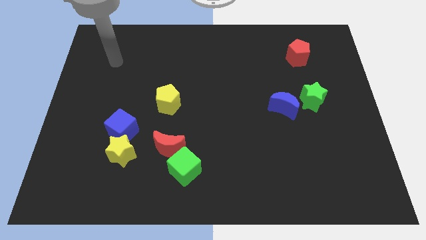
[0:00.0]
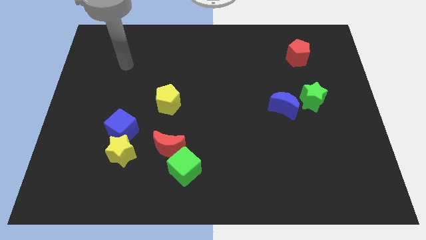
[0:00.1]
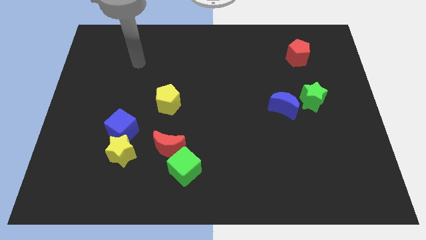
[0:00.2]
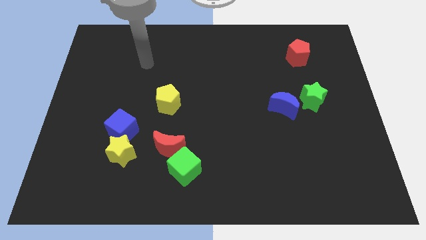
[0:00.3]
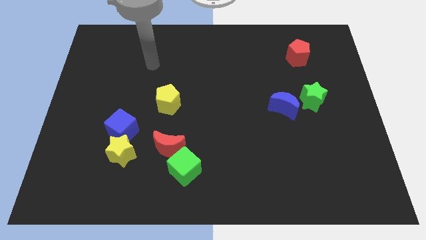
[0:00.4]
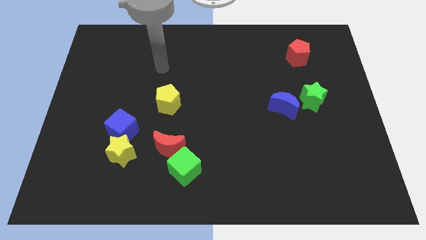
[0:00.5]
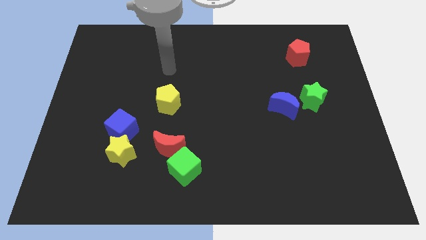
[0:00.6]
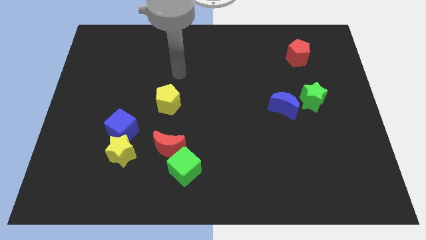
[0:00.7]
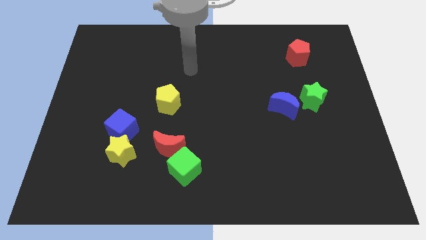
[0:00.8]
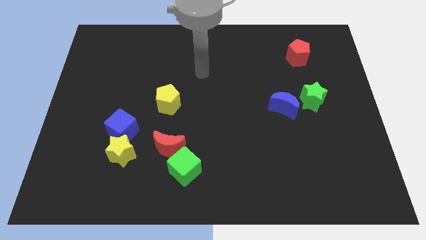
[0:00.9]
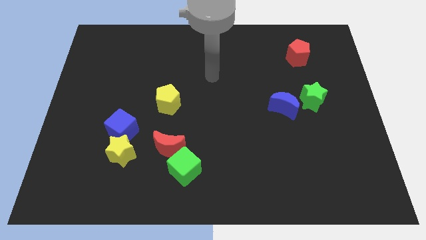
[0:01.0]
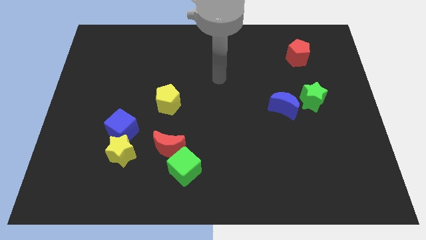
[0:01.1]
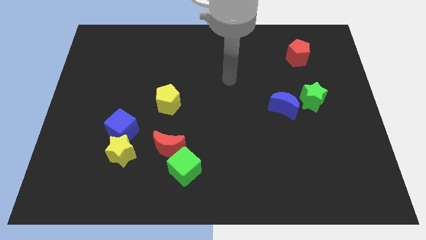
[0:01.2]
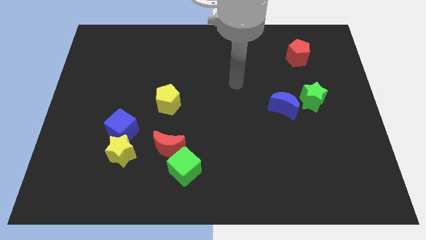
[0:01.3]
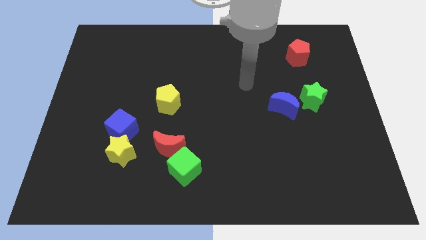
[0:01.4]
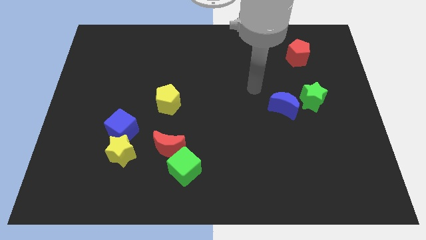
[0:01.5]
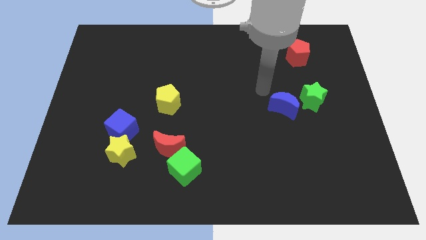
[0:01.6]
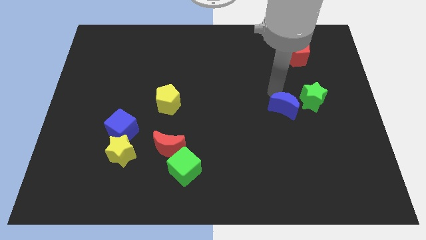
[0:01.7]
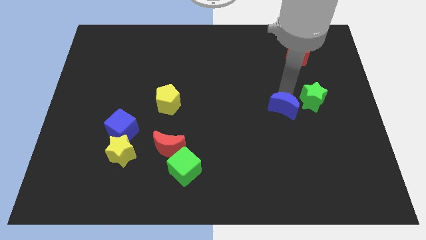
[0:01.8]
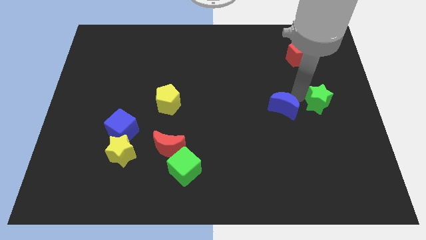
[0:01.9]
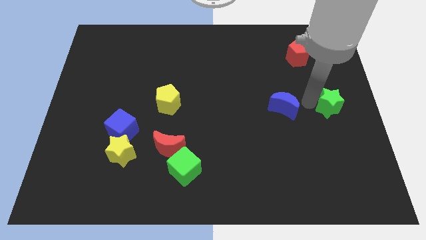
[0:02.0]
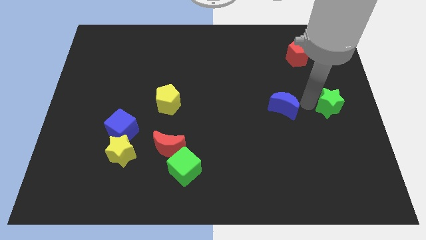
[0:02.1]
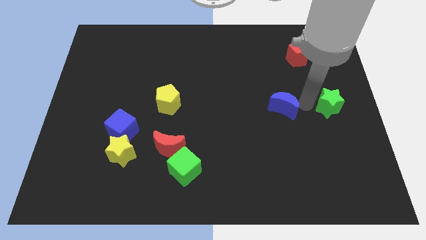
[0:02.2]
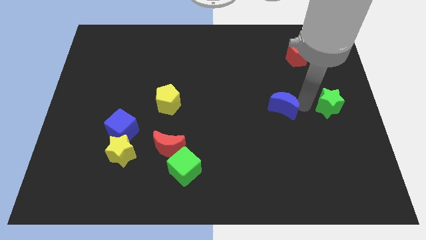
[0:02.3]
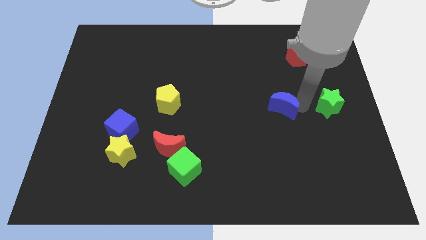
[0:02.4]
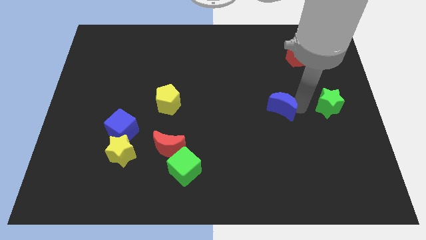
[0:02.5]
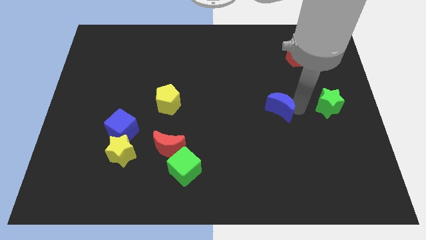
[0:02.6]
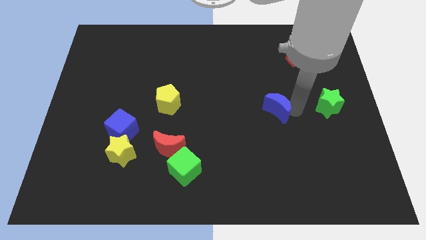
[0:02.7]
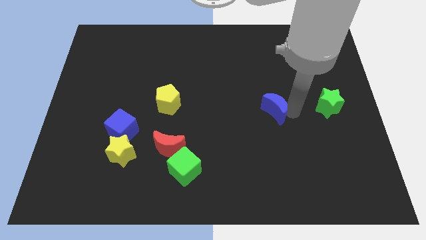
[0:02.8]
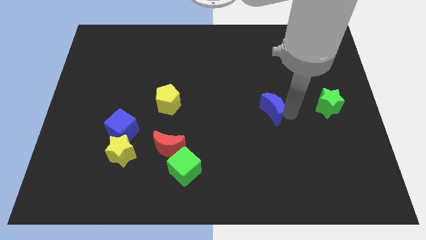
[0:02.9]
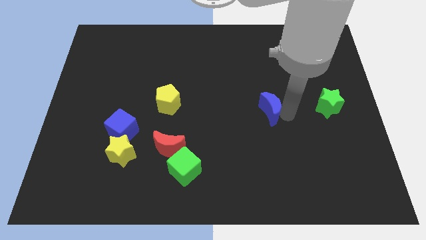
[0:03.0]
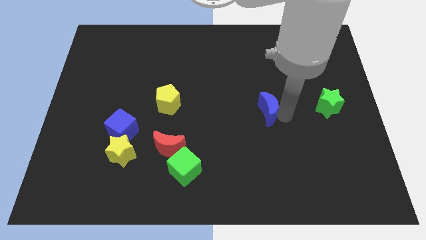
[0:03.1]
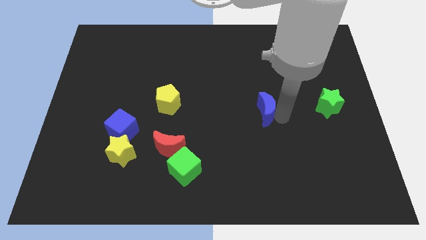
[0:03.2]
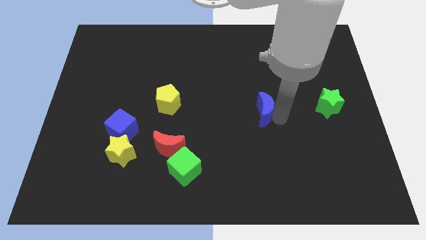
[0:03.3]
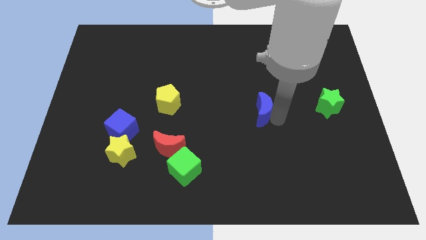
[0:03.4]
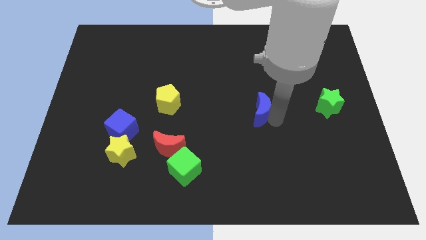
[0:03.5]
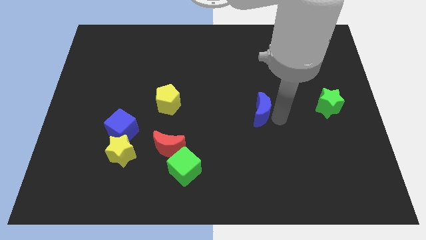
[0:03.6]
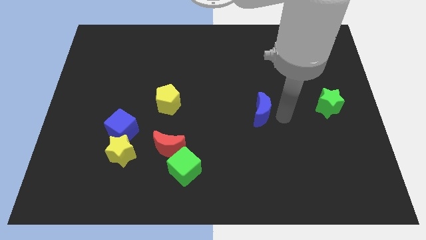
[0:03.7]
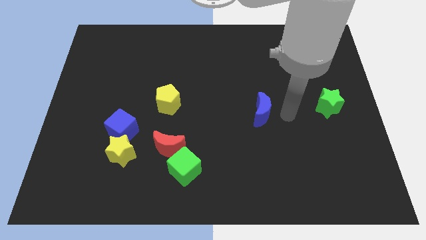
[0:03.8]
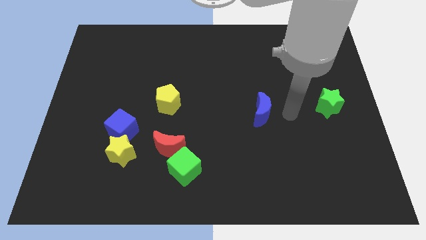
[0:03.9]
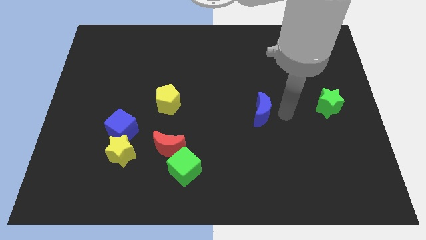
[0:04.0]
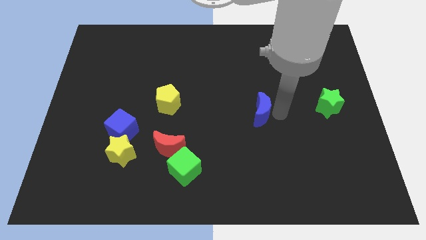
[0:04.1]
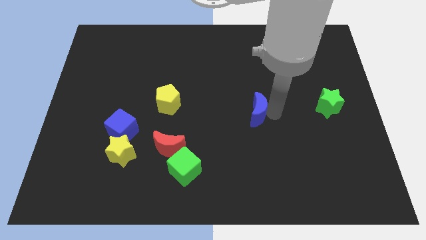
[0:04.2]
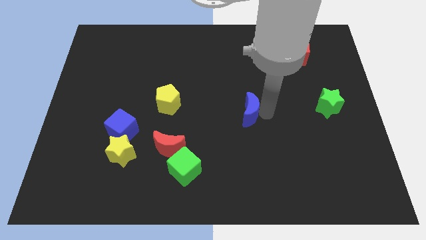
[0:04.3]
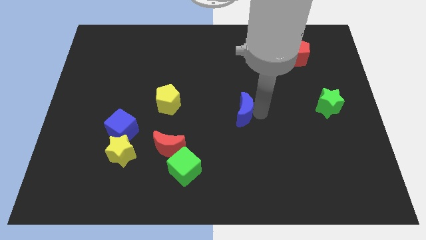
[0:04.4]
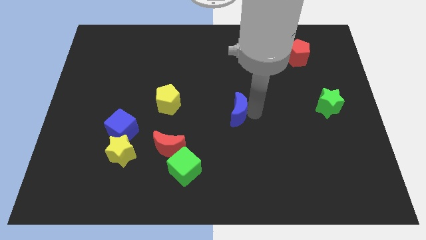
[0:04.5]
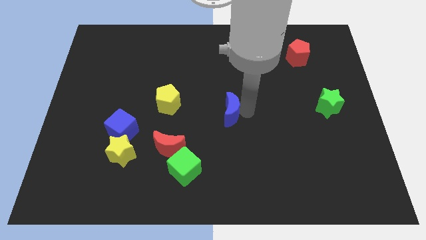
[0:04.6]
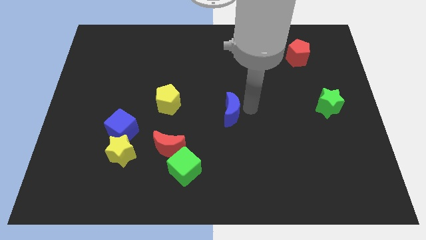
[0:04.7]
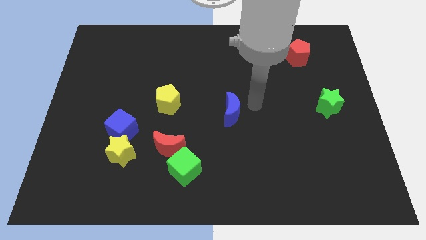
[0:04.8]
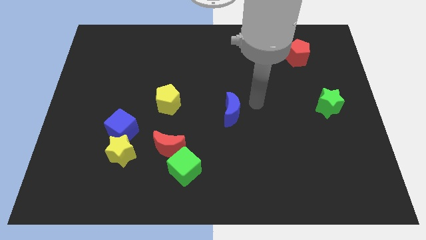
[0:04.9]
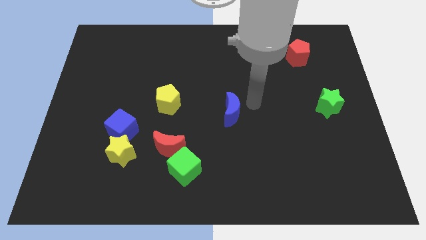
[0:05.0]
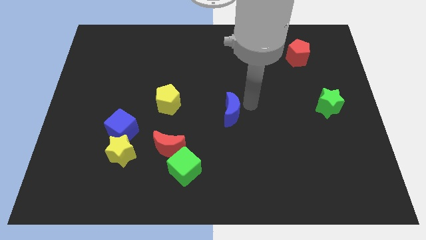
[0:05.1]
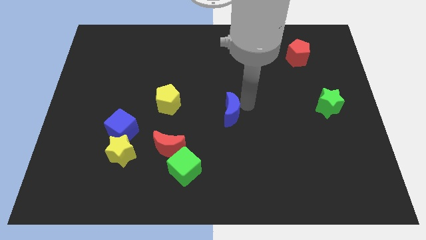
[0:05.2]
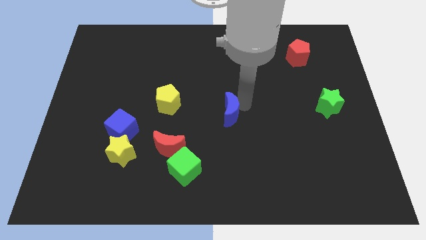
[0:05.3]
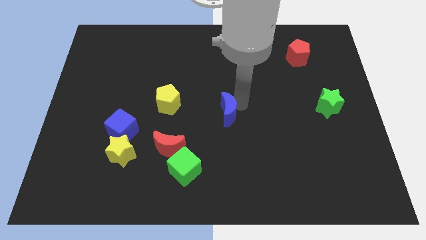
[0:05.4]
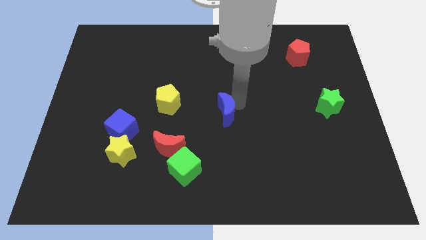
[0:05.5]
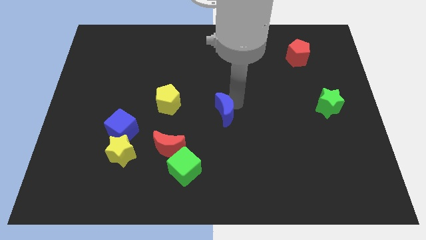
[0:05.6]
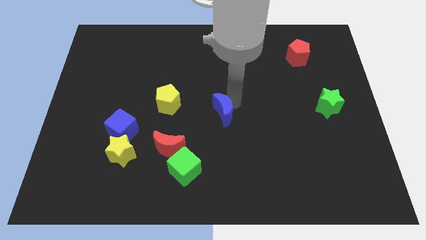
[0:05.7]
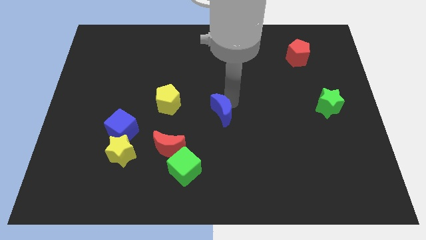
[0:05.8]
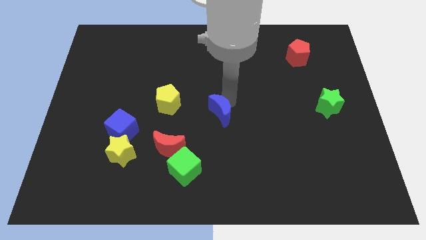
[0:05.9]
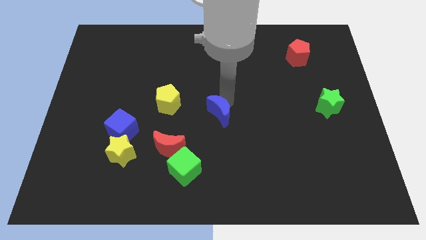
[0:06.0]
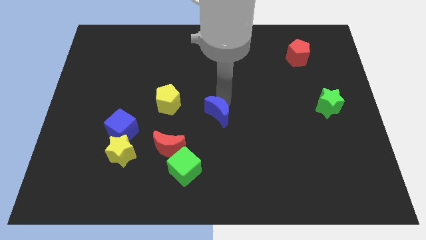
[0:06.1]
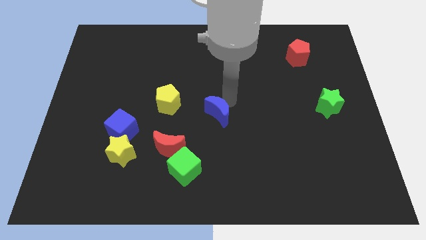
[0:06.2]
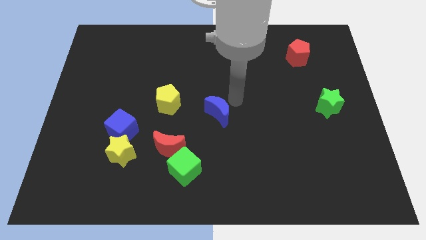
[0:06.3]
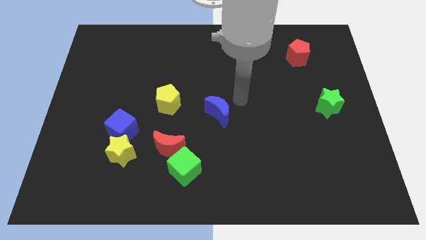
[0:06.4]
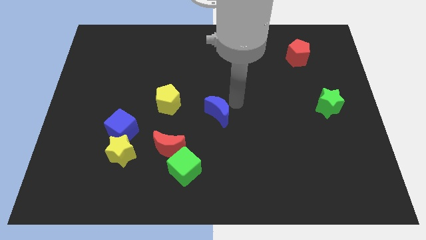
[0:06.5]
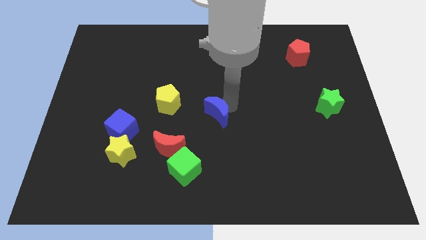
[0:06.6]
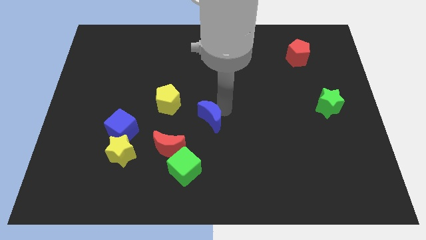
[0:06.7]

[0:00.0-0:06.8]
move the blue moon to the top right side of the red moon
